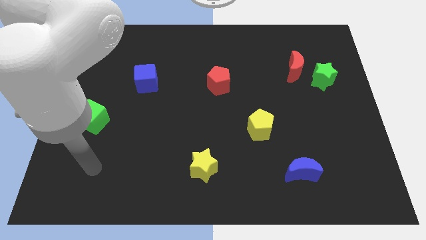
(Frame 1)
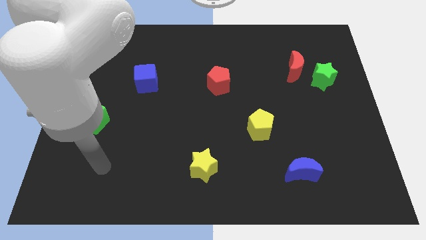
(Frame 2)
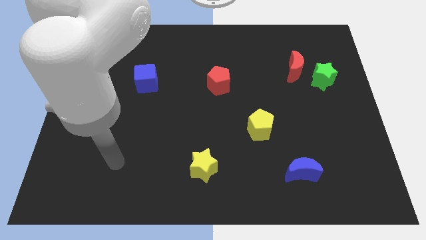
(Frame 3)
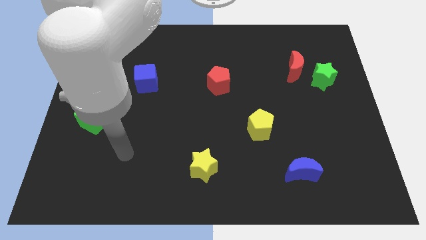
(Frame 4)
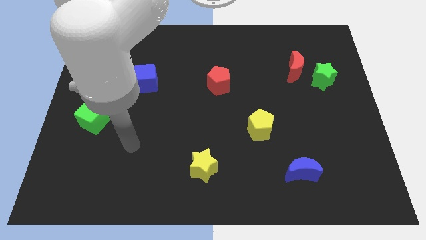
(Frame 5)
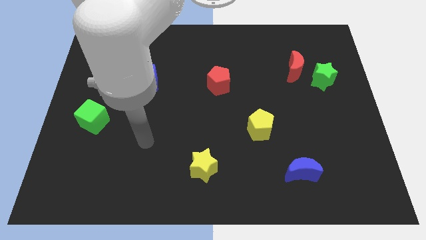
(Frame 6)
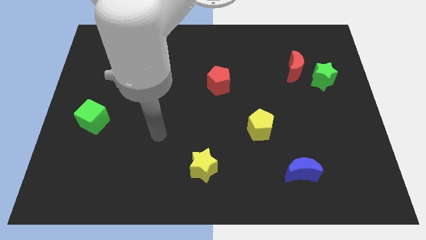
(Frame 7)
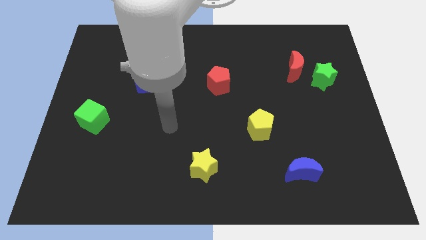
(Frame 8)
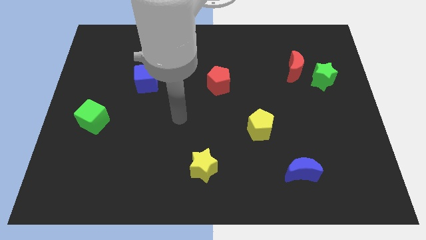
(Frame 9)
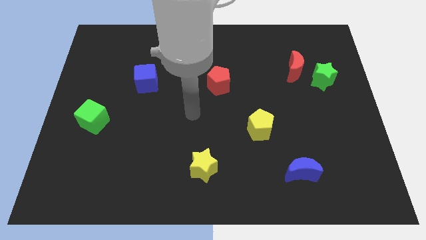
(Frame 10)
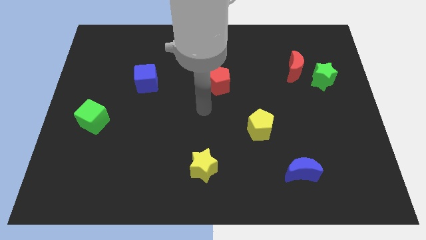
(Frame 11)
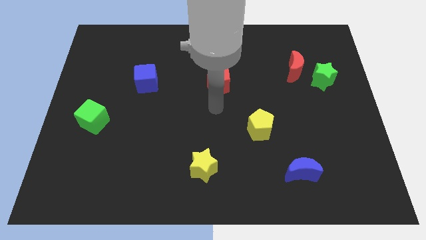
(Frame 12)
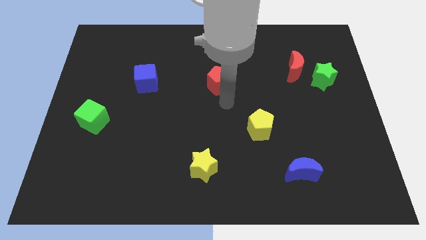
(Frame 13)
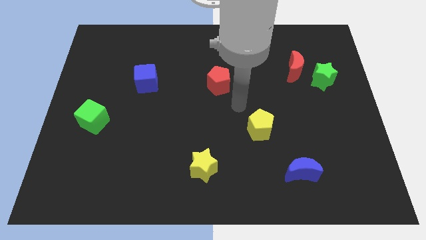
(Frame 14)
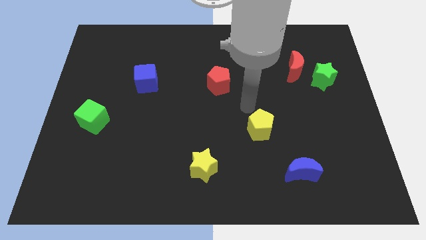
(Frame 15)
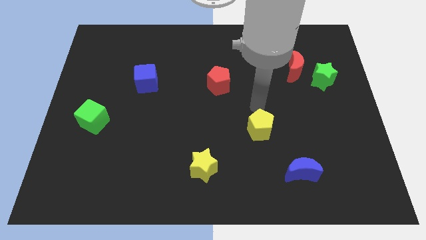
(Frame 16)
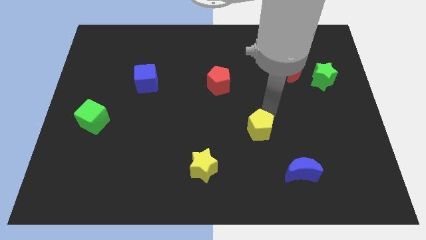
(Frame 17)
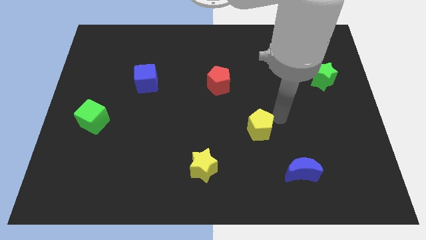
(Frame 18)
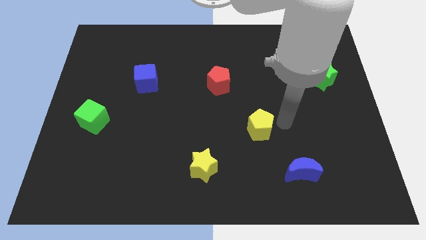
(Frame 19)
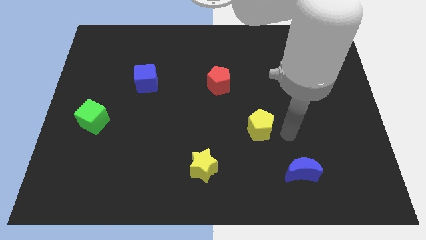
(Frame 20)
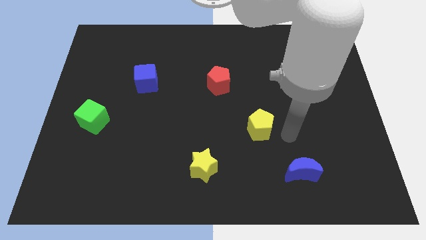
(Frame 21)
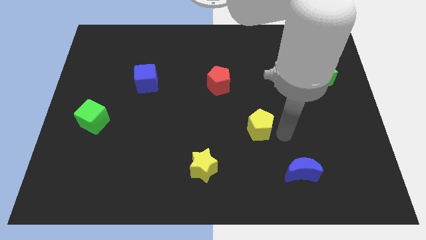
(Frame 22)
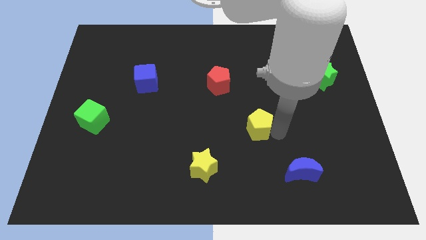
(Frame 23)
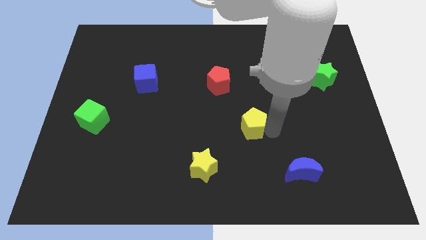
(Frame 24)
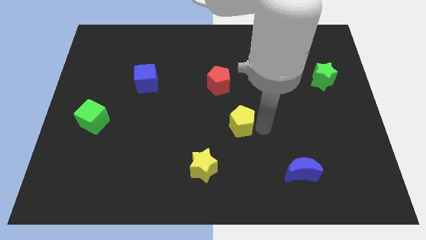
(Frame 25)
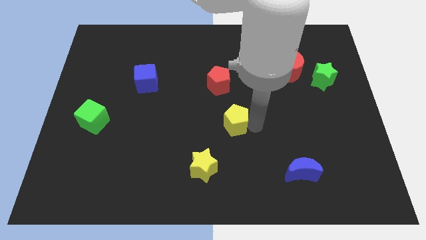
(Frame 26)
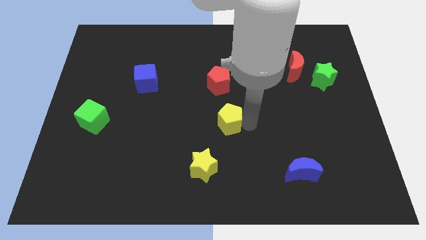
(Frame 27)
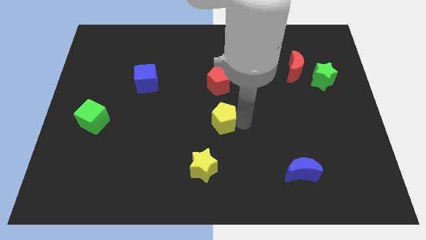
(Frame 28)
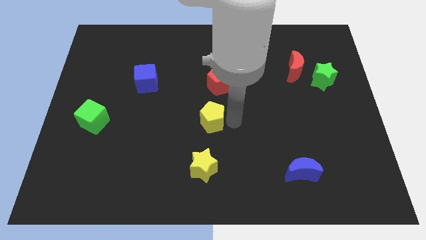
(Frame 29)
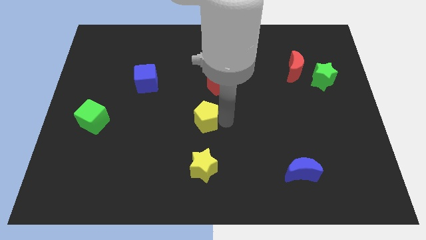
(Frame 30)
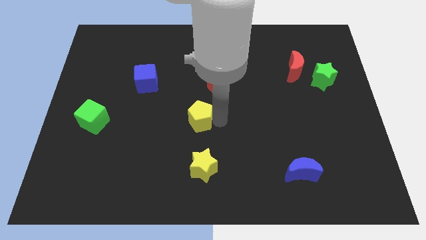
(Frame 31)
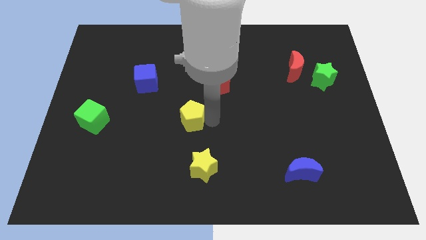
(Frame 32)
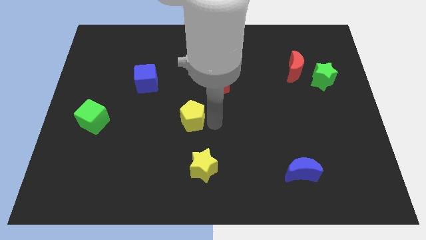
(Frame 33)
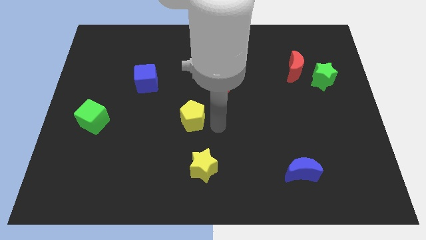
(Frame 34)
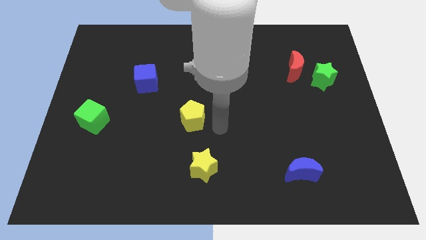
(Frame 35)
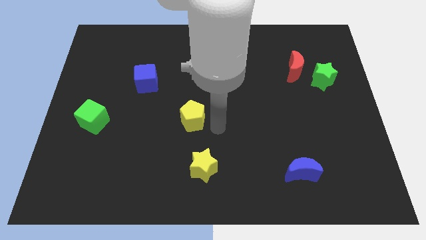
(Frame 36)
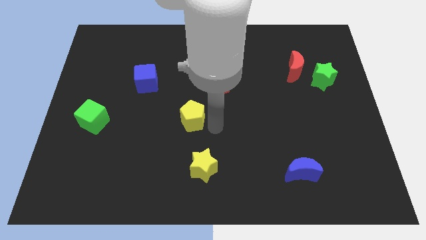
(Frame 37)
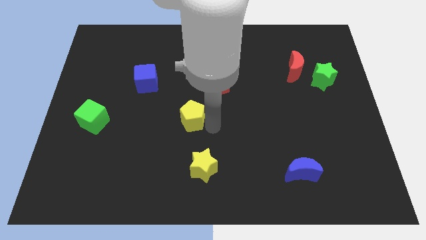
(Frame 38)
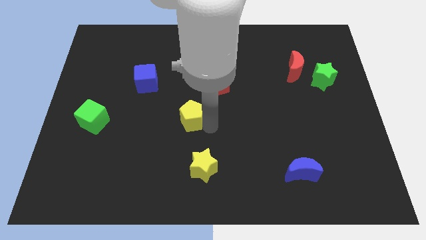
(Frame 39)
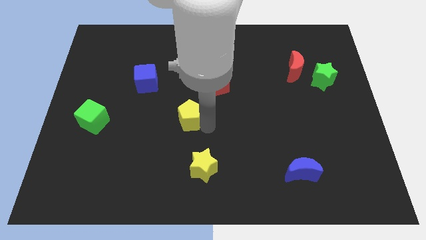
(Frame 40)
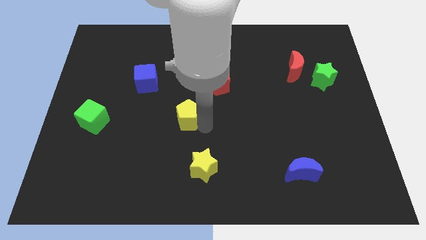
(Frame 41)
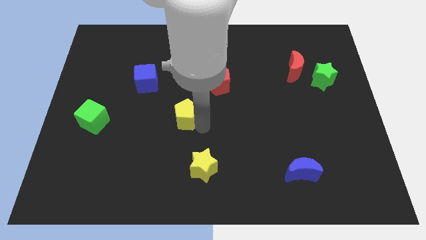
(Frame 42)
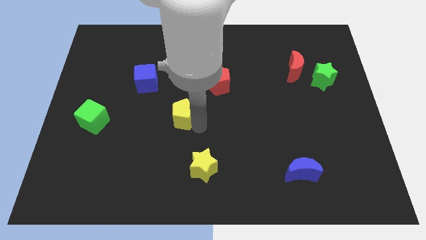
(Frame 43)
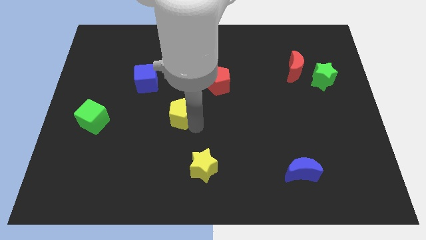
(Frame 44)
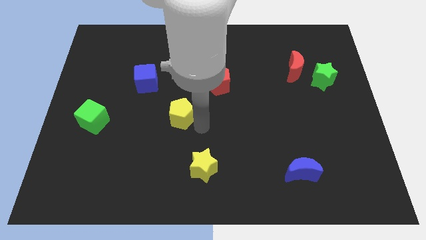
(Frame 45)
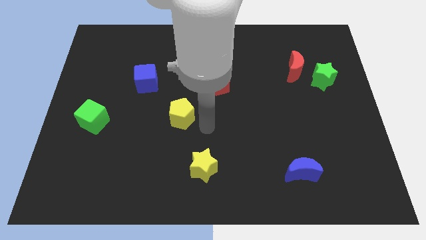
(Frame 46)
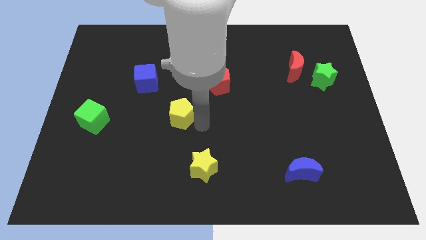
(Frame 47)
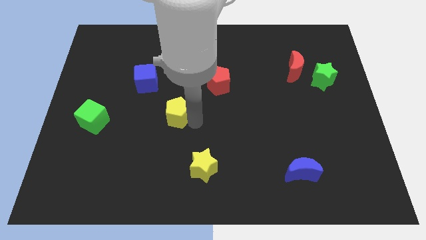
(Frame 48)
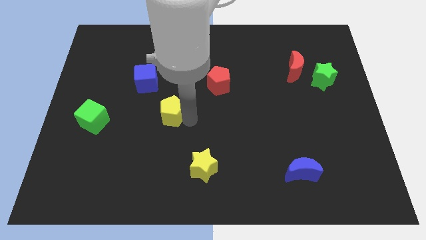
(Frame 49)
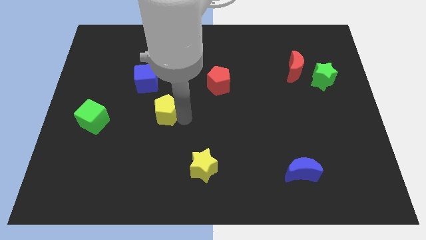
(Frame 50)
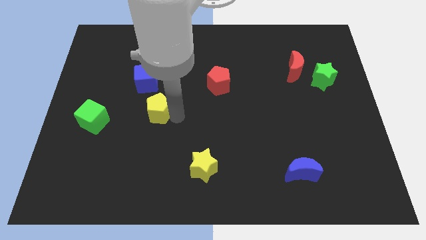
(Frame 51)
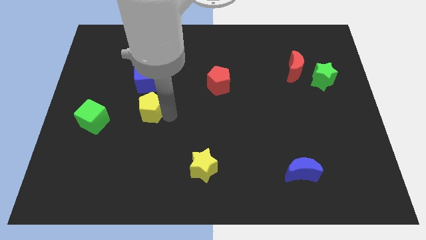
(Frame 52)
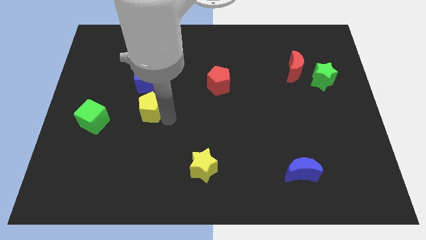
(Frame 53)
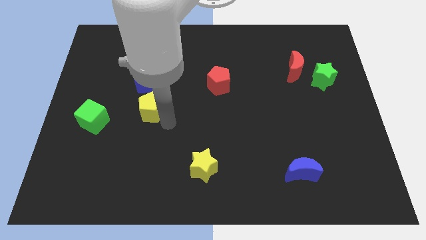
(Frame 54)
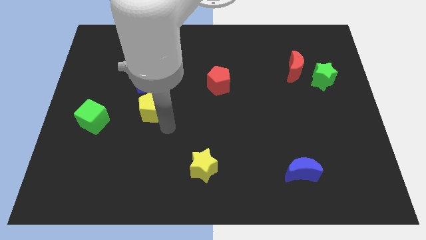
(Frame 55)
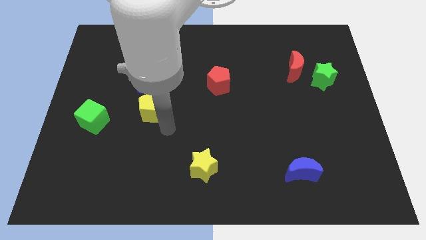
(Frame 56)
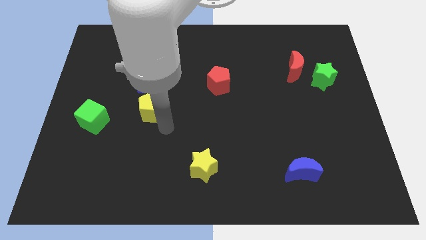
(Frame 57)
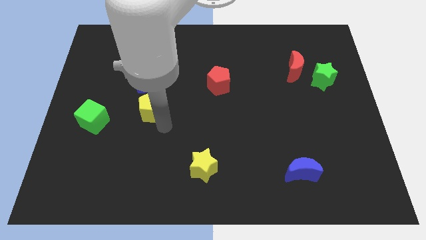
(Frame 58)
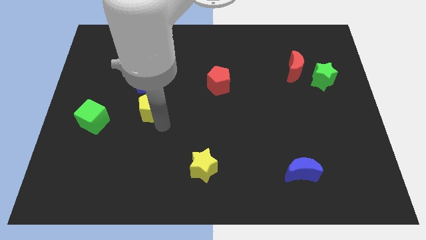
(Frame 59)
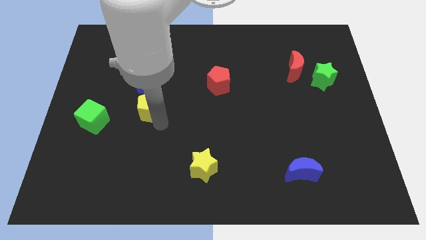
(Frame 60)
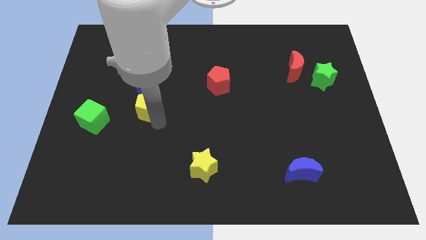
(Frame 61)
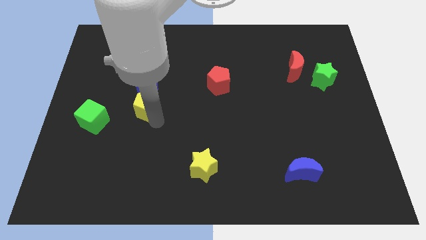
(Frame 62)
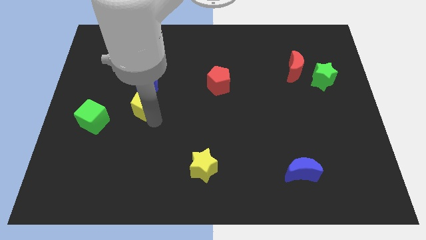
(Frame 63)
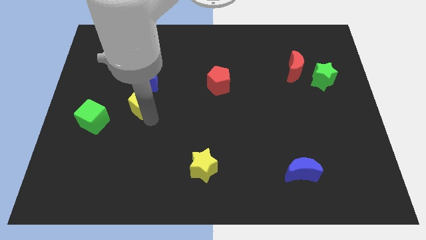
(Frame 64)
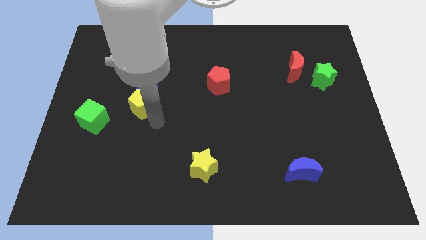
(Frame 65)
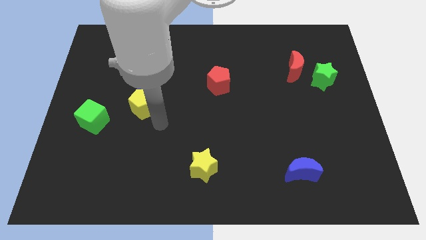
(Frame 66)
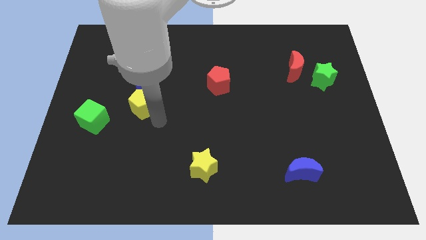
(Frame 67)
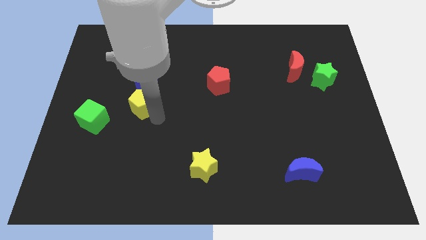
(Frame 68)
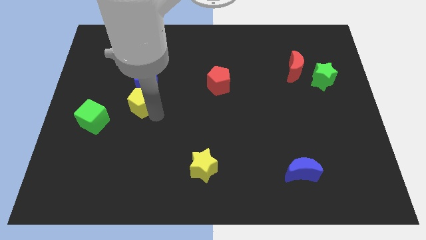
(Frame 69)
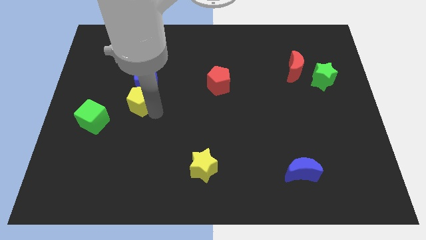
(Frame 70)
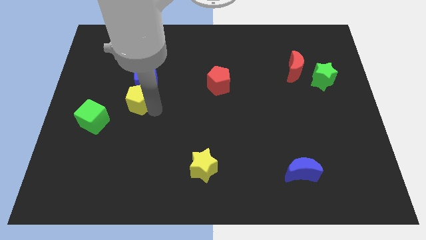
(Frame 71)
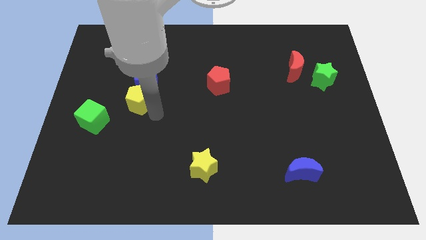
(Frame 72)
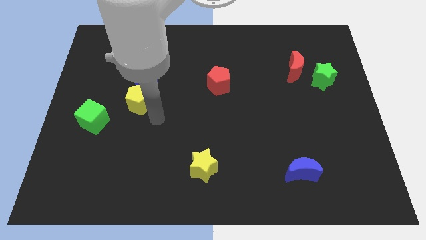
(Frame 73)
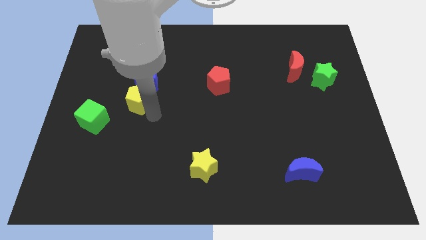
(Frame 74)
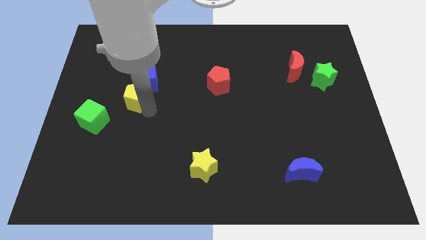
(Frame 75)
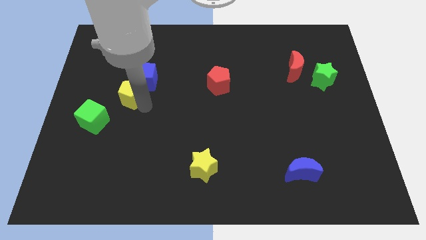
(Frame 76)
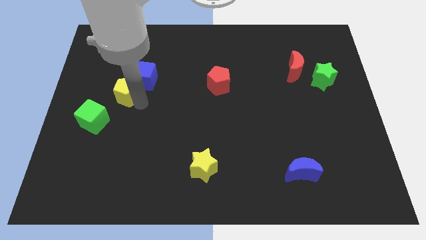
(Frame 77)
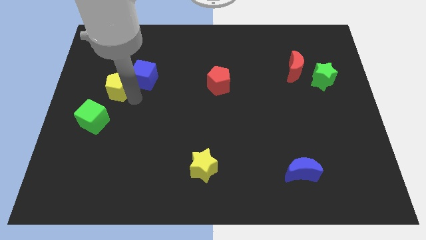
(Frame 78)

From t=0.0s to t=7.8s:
slide the yellow pentagon just left of the blue cube

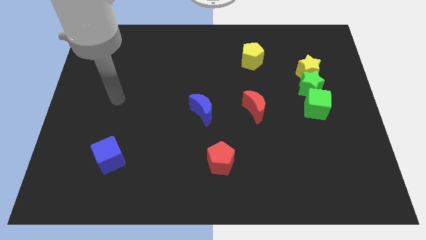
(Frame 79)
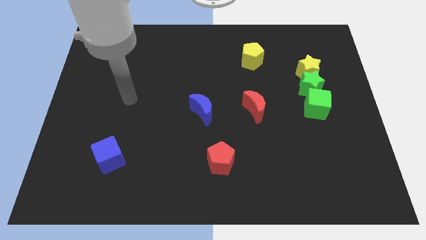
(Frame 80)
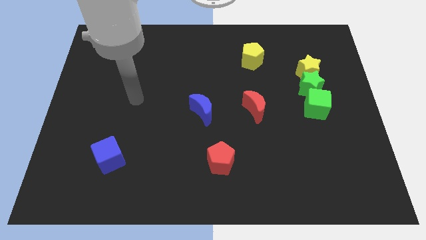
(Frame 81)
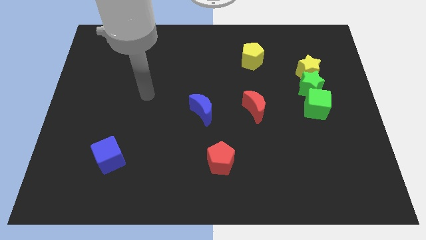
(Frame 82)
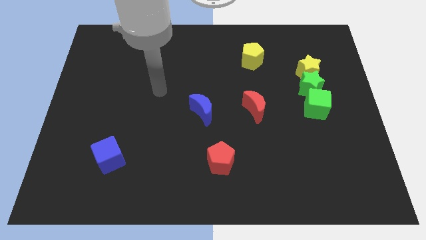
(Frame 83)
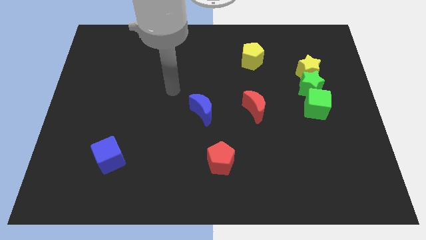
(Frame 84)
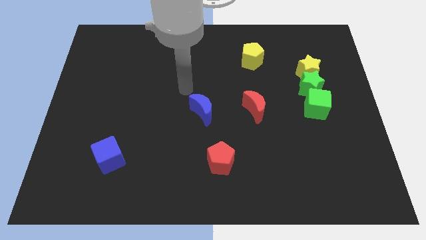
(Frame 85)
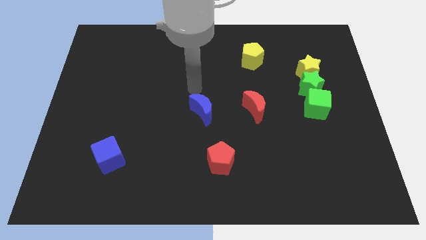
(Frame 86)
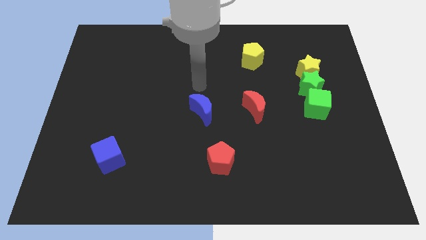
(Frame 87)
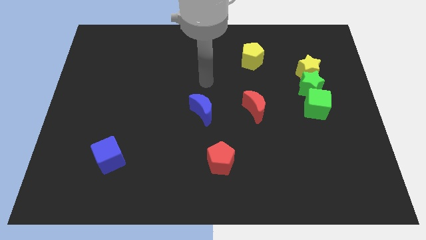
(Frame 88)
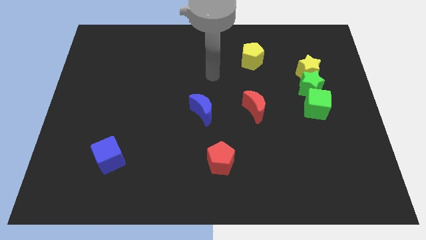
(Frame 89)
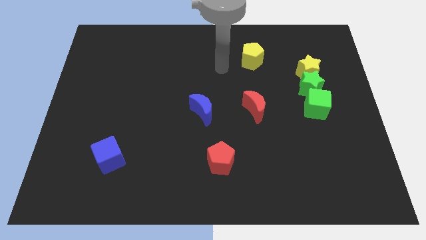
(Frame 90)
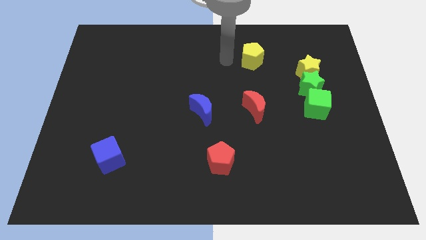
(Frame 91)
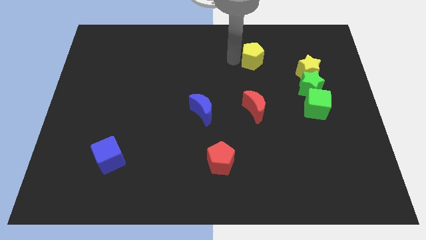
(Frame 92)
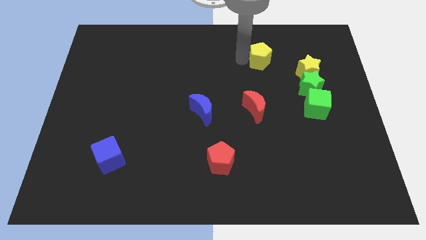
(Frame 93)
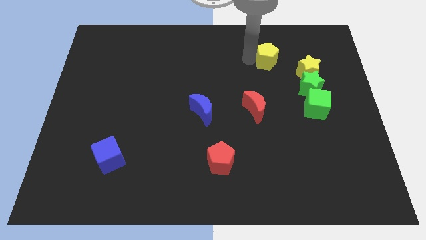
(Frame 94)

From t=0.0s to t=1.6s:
put the yellow pentagon diagonally up and to the left of the yellow star
